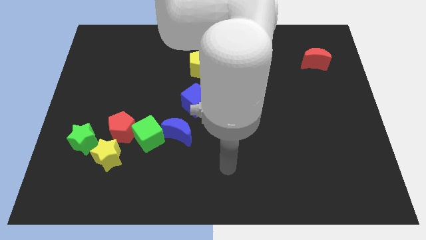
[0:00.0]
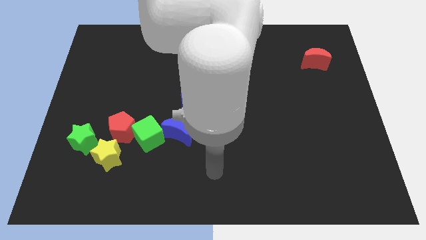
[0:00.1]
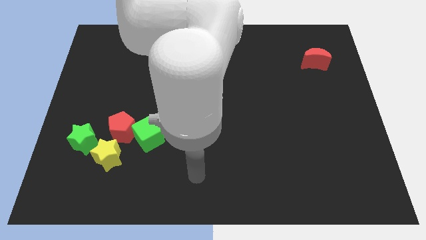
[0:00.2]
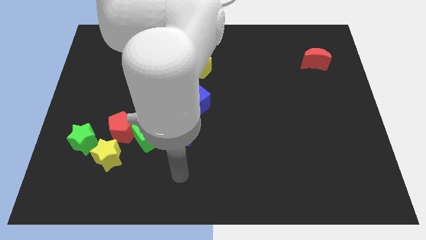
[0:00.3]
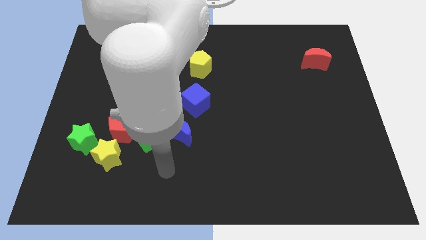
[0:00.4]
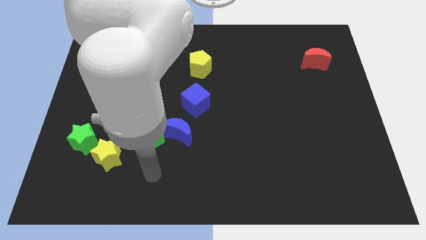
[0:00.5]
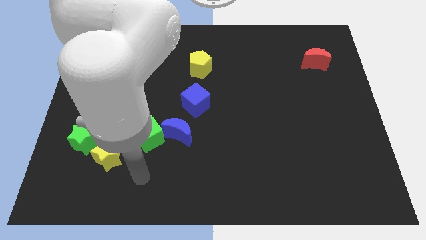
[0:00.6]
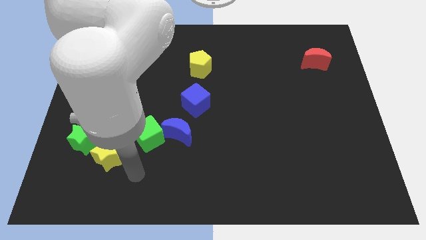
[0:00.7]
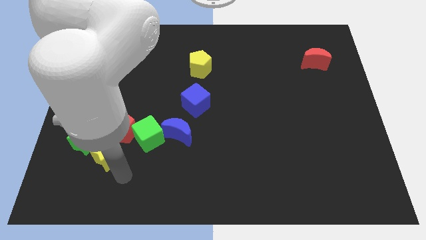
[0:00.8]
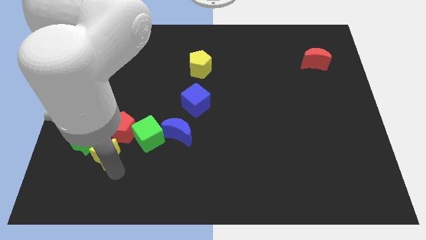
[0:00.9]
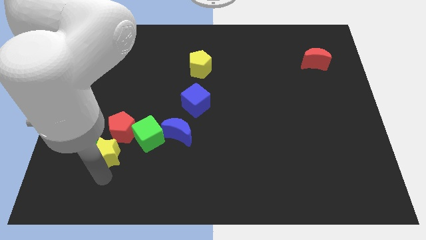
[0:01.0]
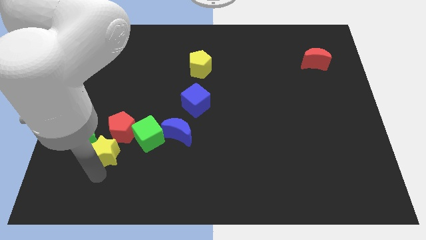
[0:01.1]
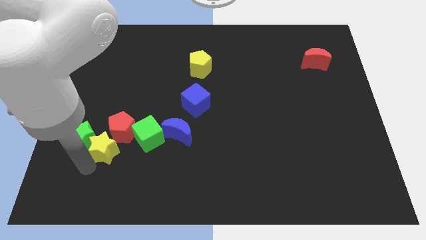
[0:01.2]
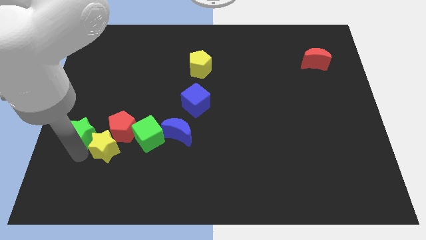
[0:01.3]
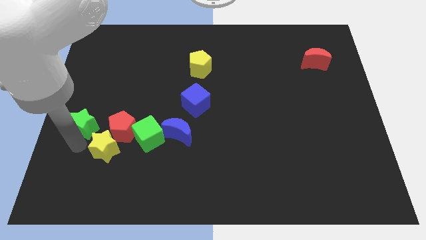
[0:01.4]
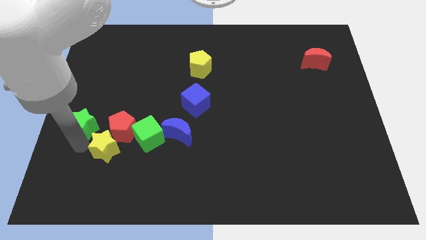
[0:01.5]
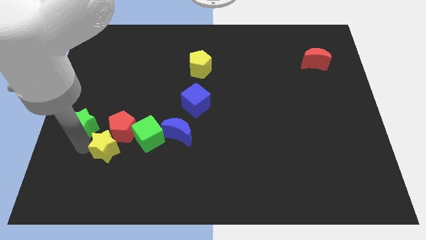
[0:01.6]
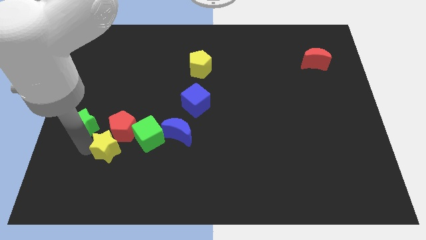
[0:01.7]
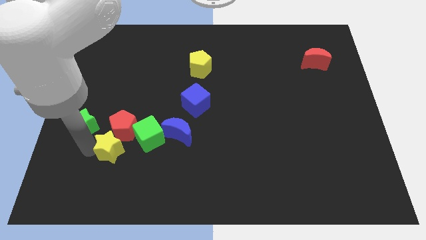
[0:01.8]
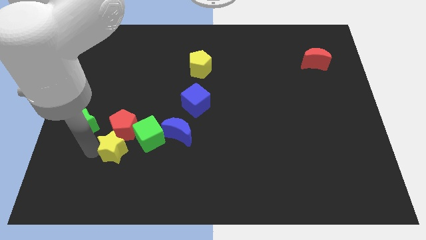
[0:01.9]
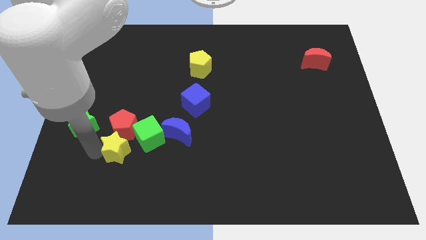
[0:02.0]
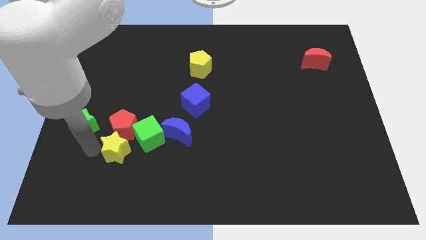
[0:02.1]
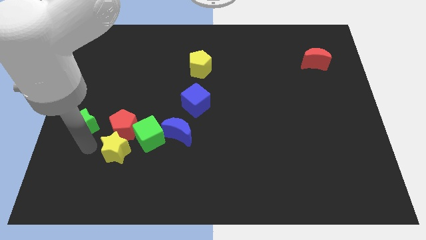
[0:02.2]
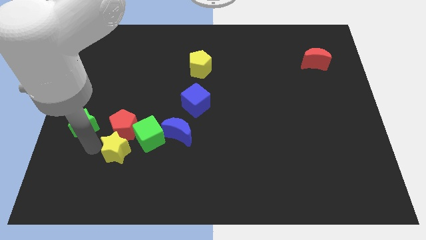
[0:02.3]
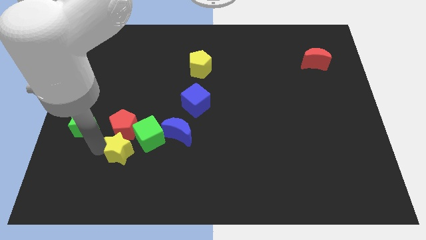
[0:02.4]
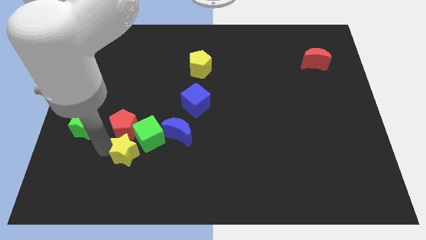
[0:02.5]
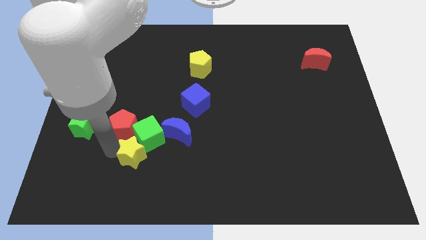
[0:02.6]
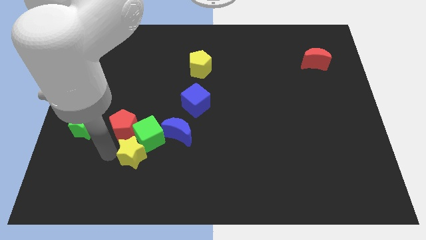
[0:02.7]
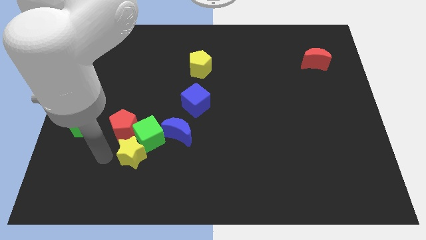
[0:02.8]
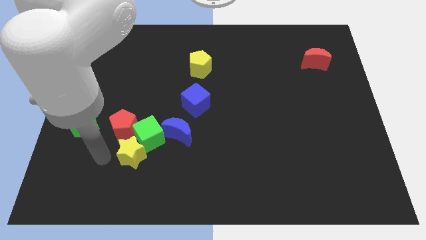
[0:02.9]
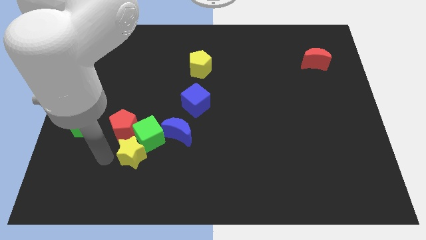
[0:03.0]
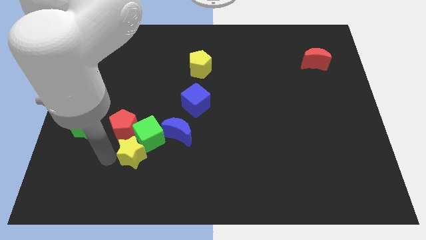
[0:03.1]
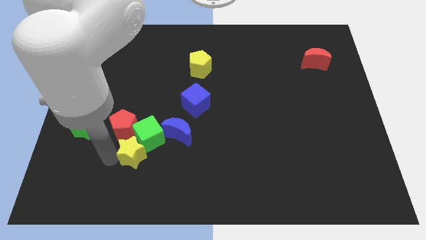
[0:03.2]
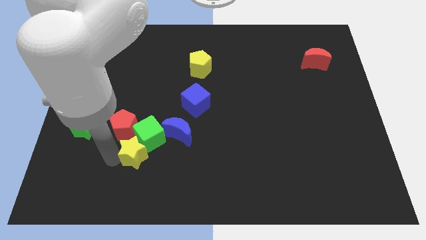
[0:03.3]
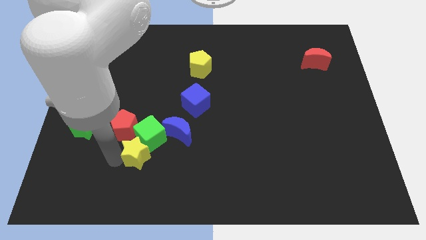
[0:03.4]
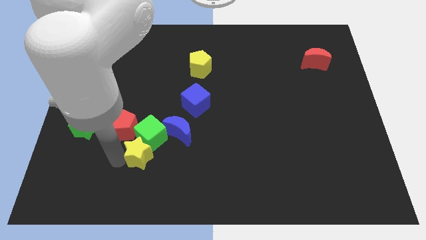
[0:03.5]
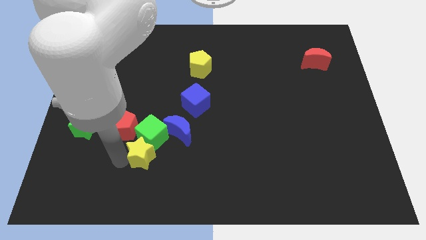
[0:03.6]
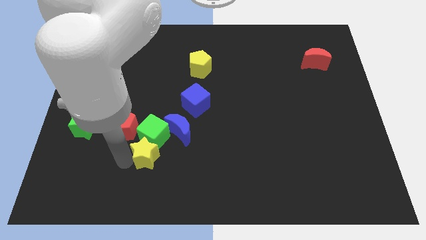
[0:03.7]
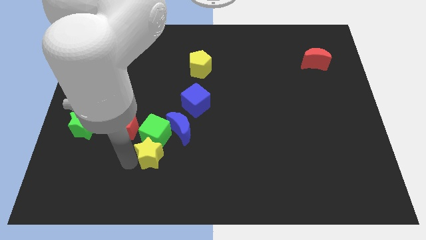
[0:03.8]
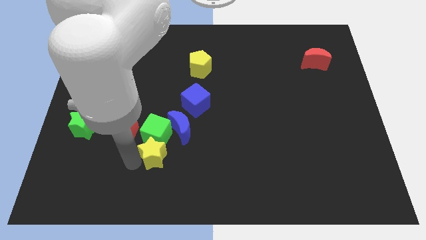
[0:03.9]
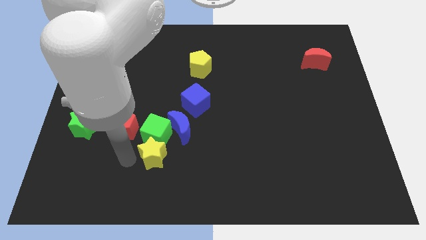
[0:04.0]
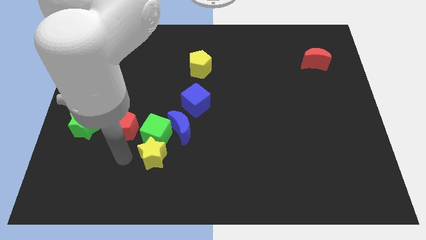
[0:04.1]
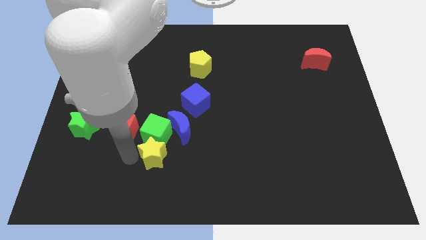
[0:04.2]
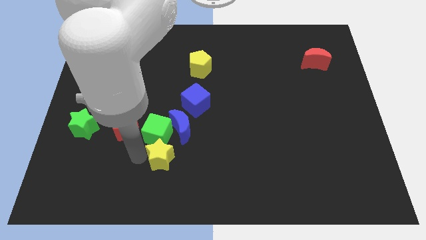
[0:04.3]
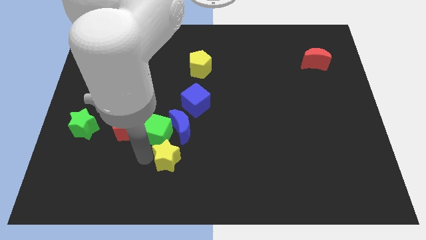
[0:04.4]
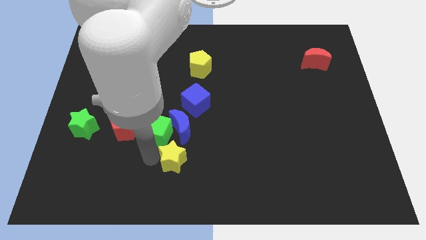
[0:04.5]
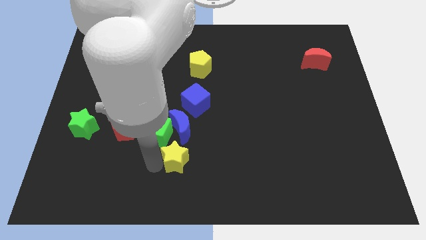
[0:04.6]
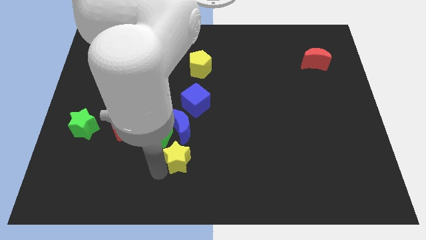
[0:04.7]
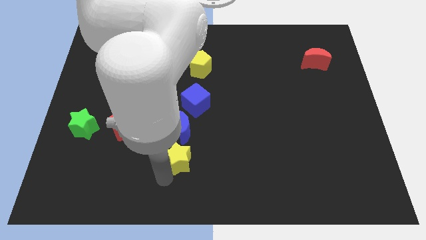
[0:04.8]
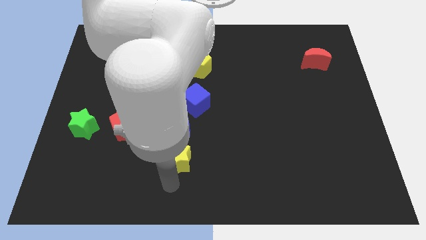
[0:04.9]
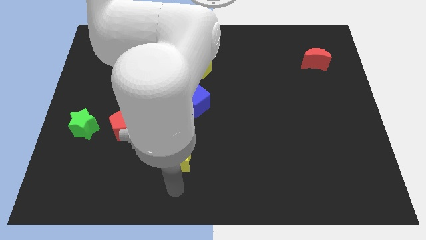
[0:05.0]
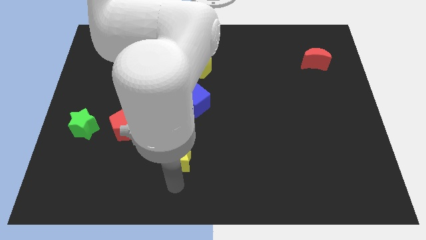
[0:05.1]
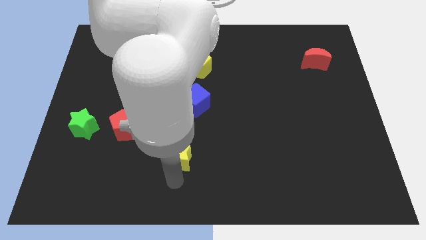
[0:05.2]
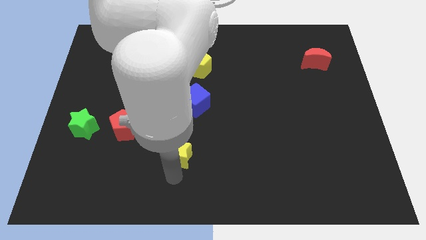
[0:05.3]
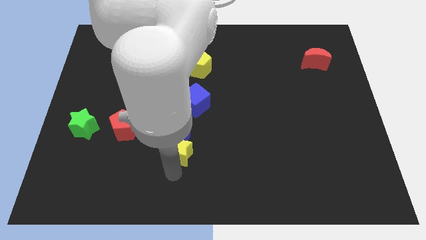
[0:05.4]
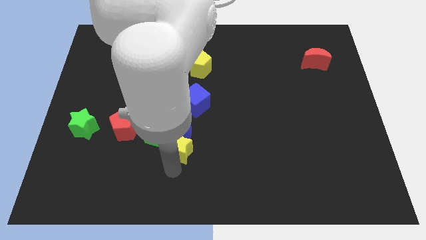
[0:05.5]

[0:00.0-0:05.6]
slide the yellow star to the blue moon

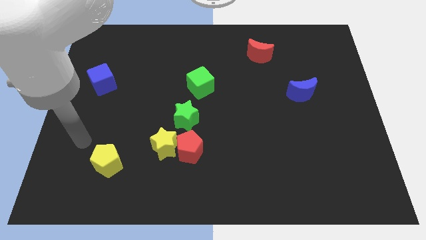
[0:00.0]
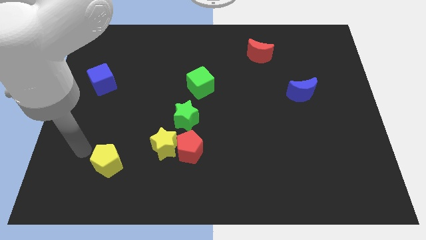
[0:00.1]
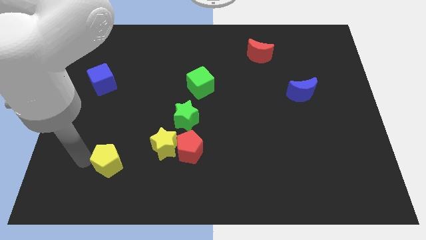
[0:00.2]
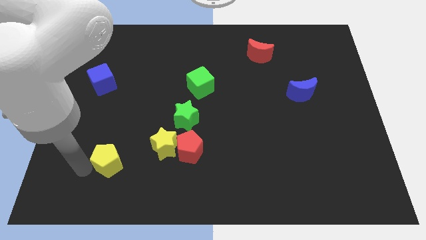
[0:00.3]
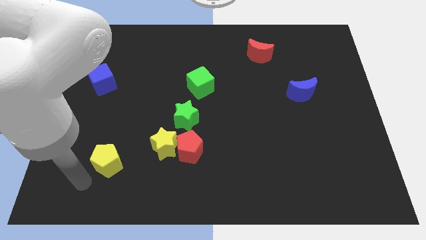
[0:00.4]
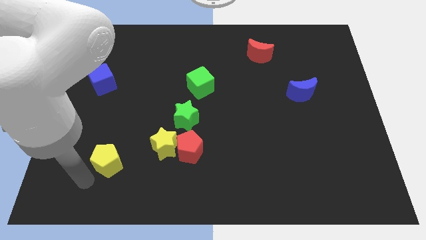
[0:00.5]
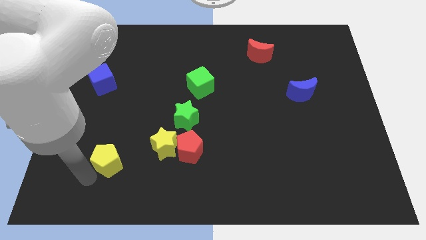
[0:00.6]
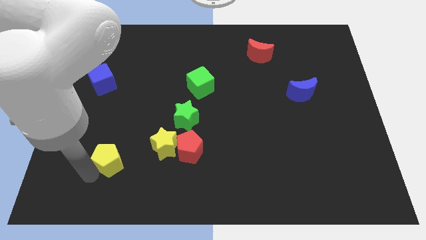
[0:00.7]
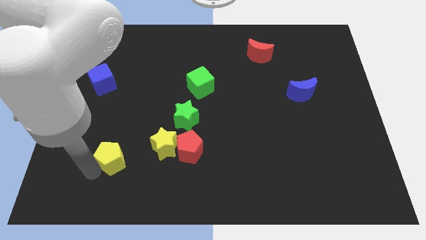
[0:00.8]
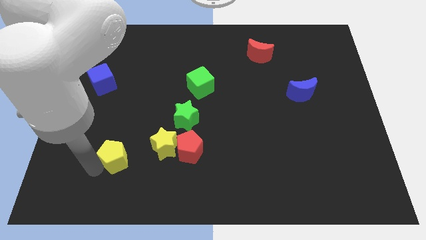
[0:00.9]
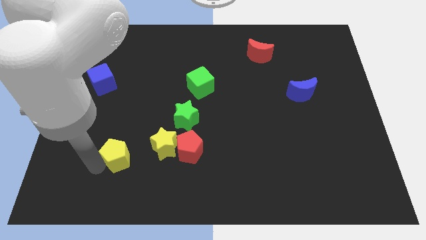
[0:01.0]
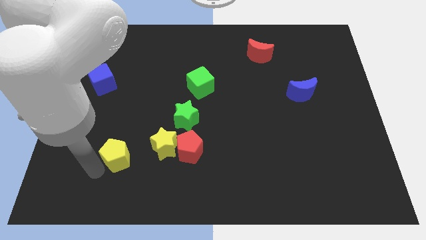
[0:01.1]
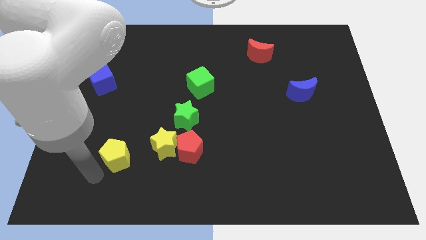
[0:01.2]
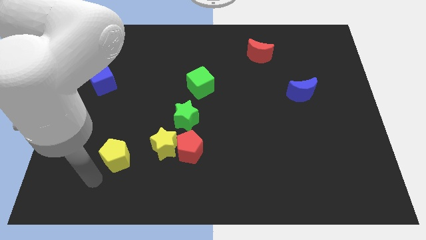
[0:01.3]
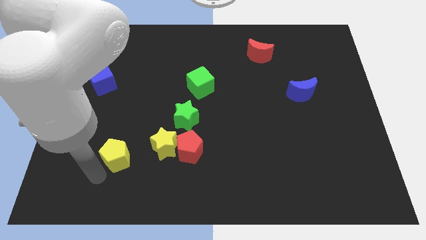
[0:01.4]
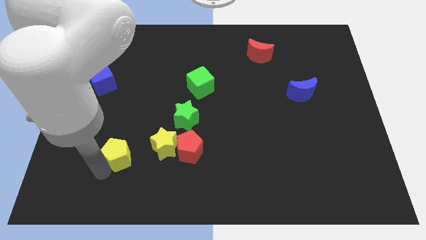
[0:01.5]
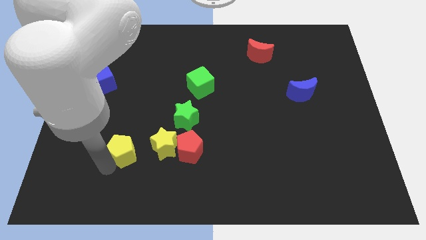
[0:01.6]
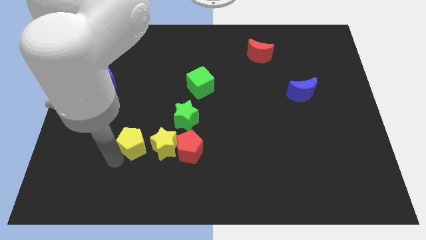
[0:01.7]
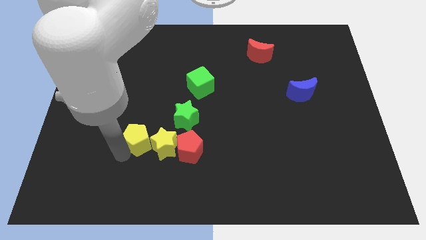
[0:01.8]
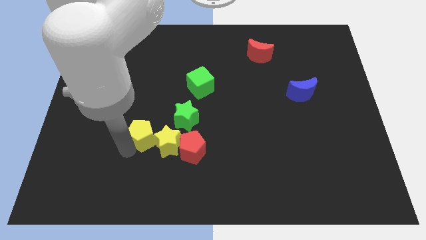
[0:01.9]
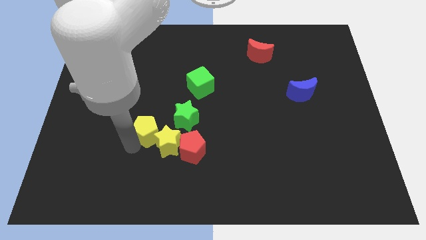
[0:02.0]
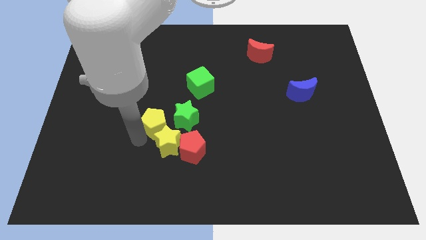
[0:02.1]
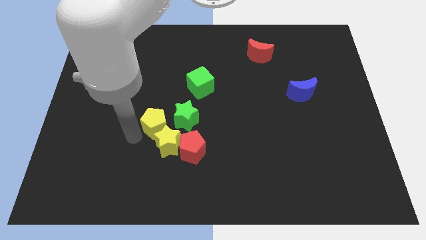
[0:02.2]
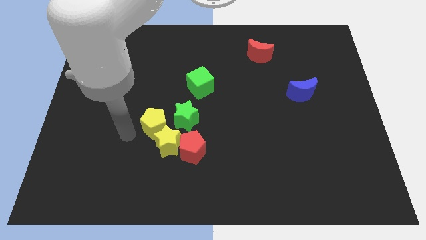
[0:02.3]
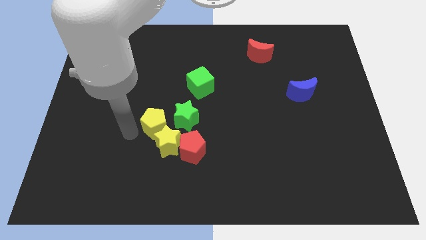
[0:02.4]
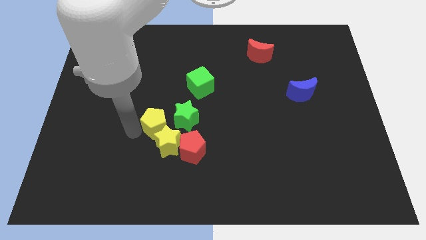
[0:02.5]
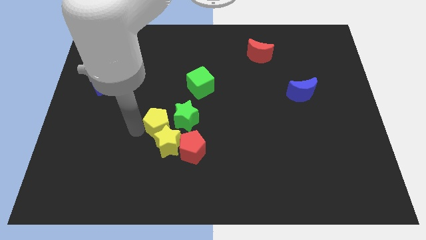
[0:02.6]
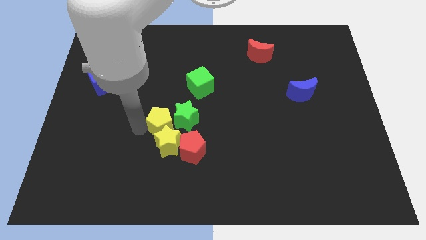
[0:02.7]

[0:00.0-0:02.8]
put the yellow pentagon next to the green star
